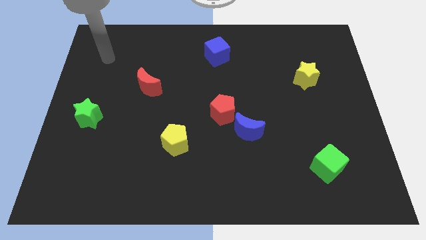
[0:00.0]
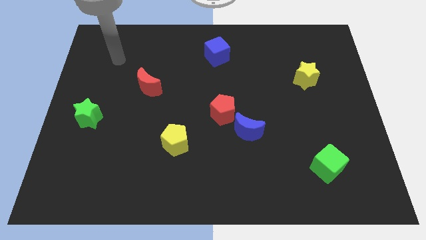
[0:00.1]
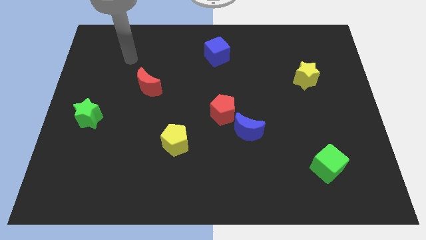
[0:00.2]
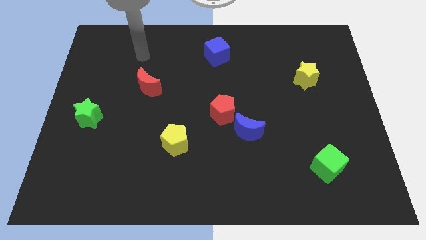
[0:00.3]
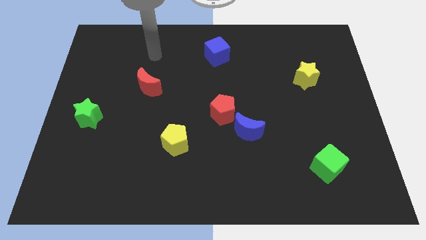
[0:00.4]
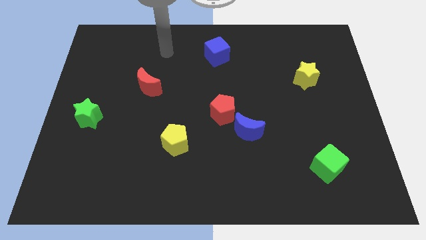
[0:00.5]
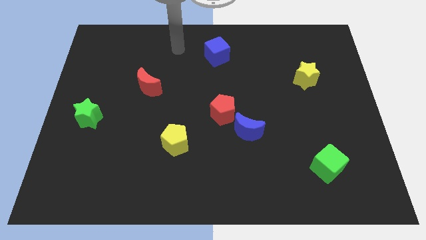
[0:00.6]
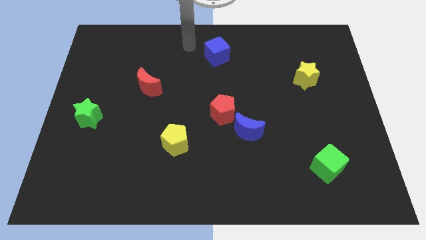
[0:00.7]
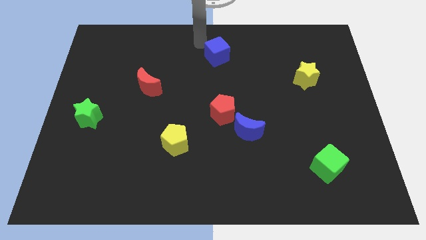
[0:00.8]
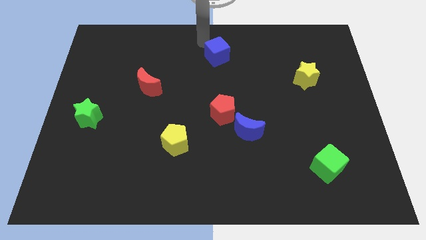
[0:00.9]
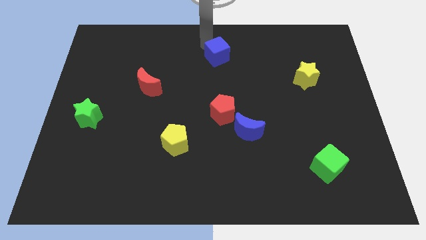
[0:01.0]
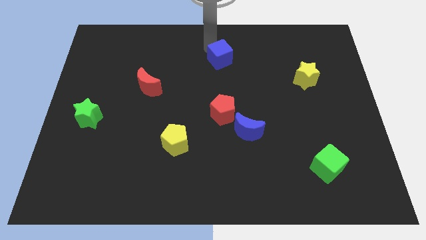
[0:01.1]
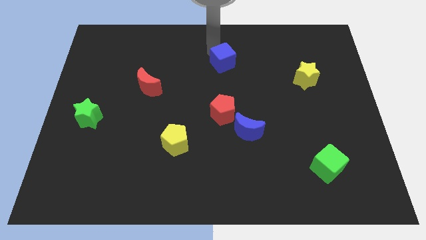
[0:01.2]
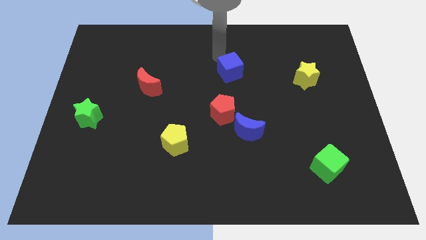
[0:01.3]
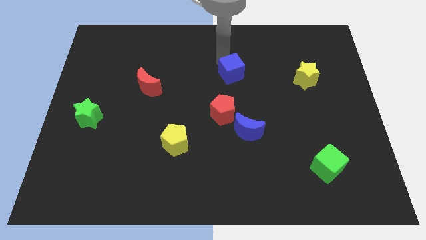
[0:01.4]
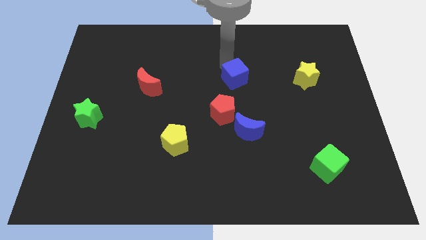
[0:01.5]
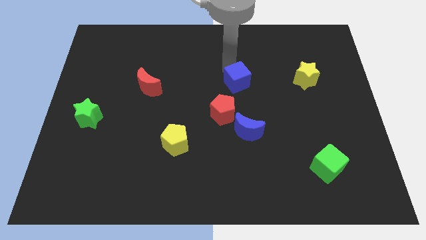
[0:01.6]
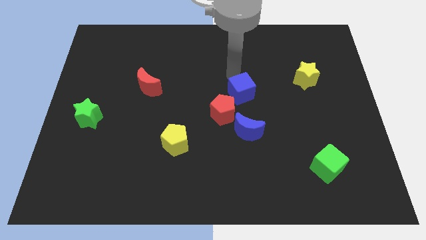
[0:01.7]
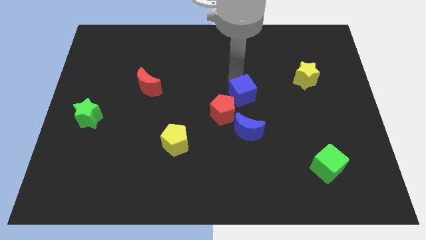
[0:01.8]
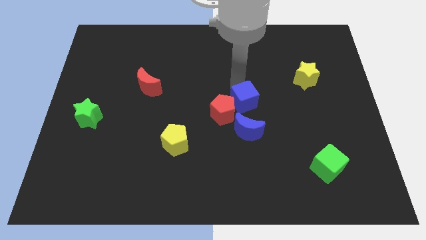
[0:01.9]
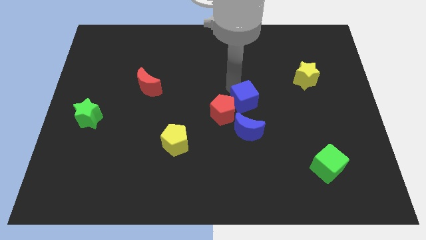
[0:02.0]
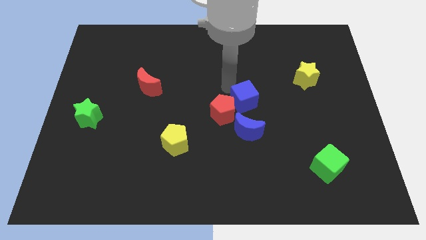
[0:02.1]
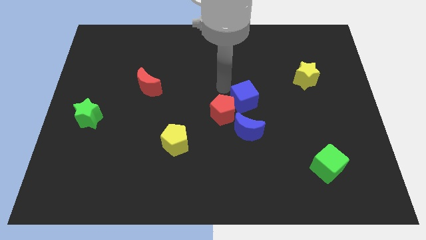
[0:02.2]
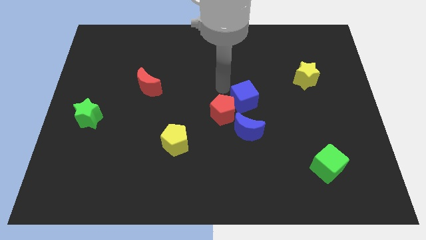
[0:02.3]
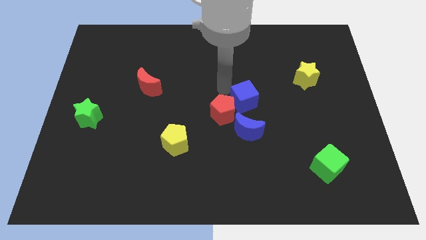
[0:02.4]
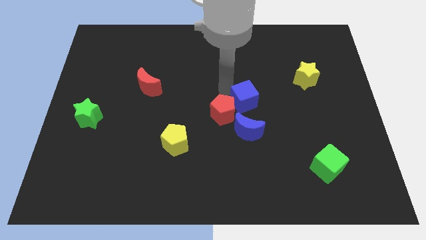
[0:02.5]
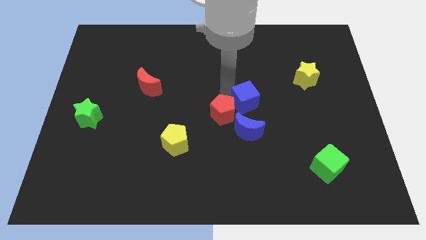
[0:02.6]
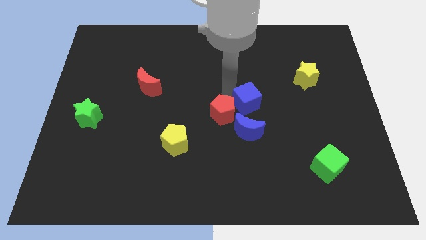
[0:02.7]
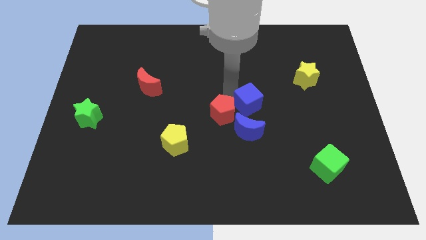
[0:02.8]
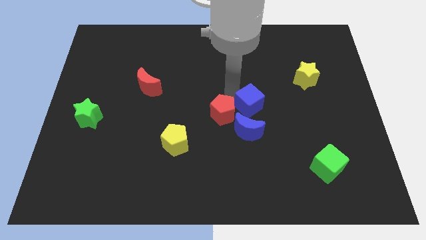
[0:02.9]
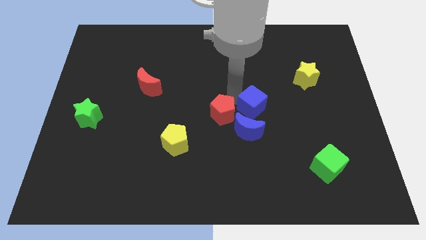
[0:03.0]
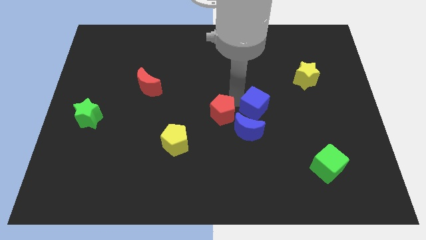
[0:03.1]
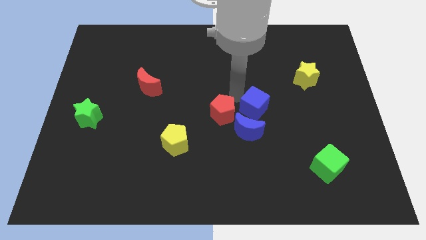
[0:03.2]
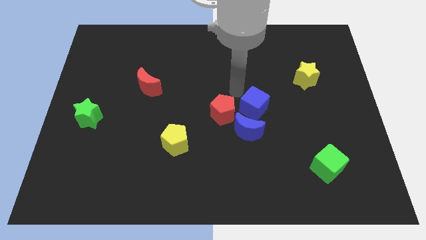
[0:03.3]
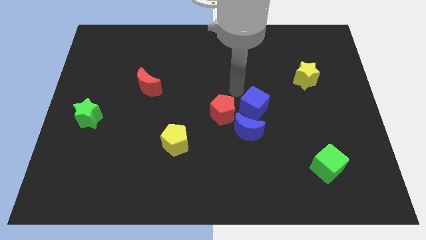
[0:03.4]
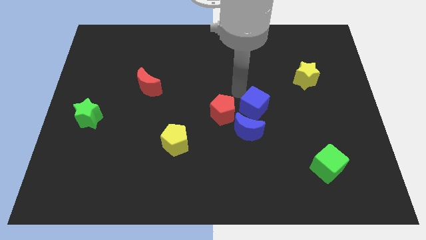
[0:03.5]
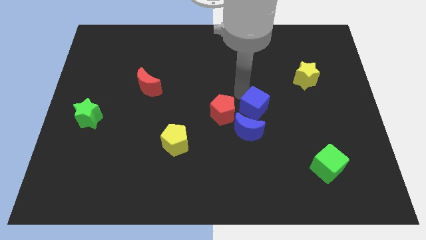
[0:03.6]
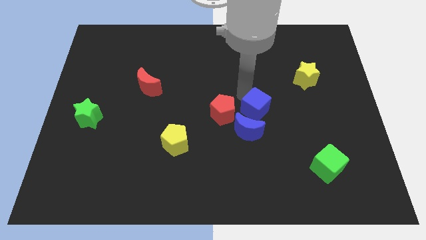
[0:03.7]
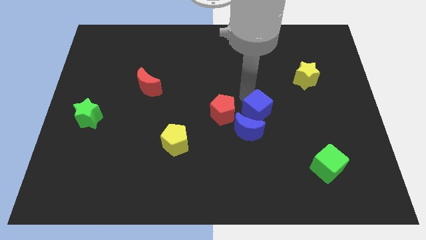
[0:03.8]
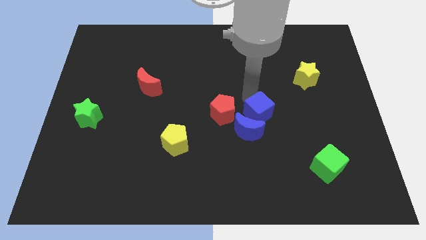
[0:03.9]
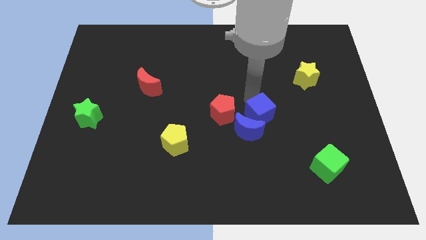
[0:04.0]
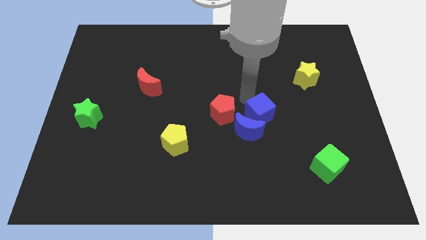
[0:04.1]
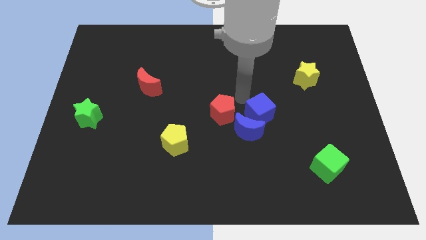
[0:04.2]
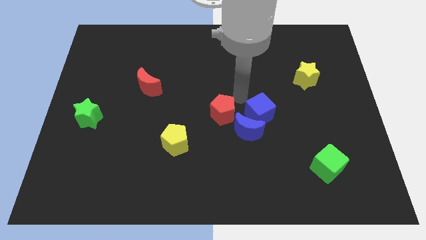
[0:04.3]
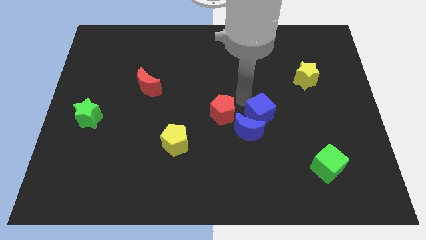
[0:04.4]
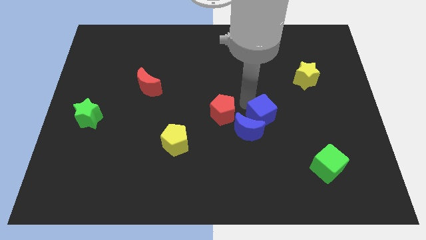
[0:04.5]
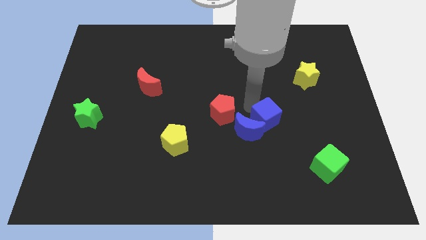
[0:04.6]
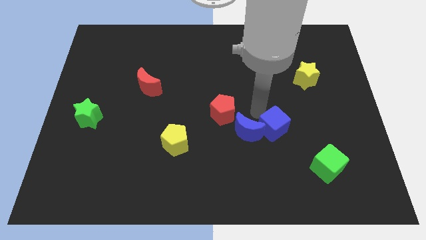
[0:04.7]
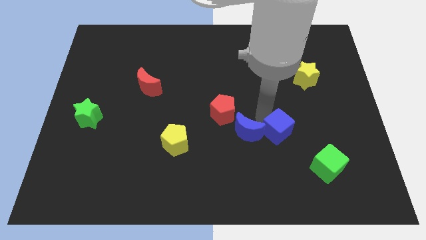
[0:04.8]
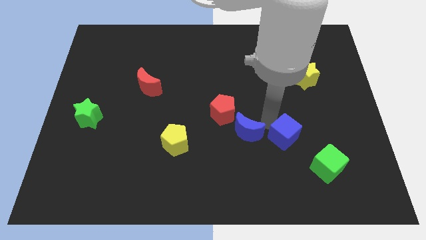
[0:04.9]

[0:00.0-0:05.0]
slide the blue cube to the top left side of the green cube

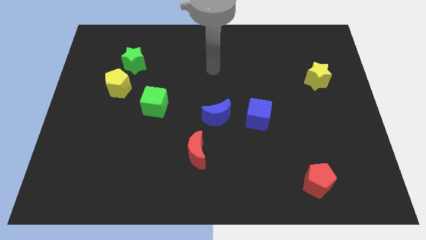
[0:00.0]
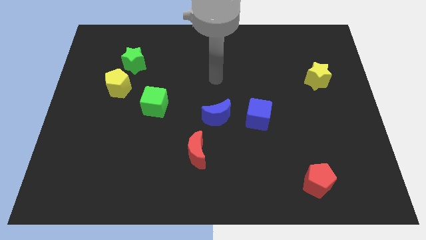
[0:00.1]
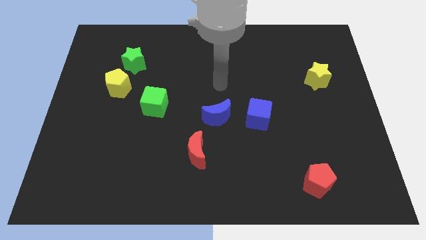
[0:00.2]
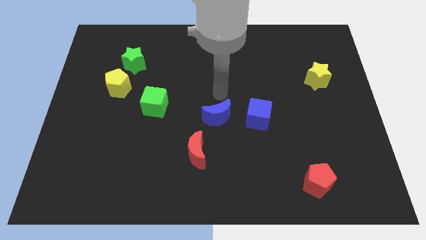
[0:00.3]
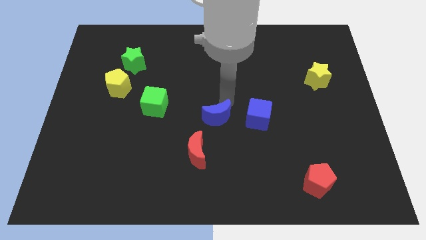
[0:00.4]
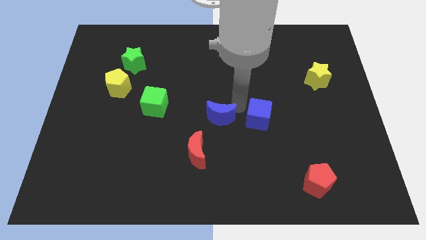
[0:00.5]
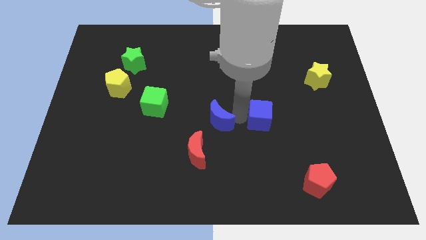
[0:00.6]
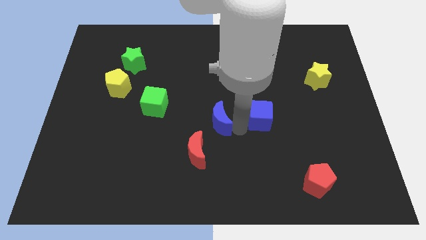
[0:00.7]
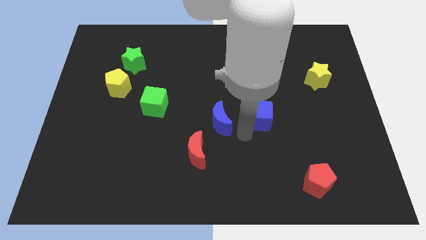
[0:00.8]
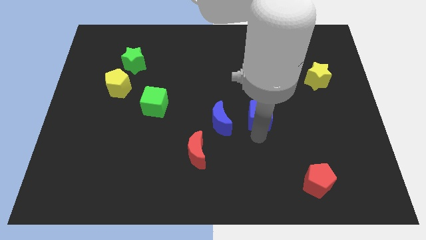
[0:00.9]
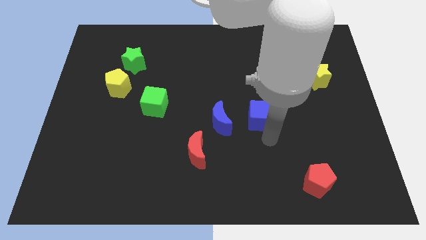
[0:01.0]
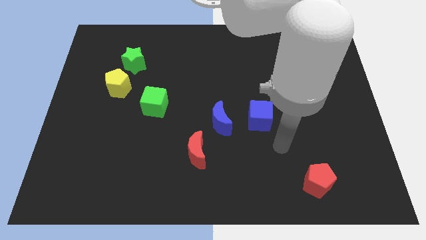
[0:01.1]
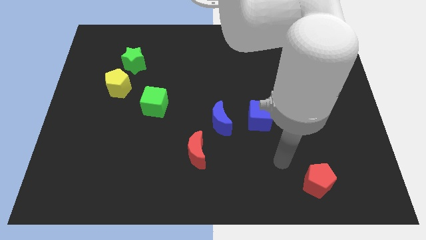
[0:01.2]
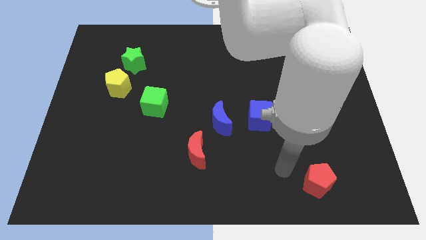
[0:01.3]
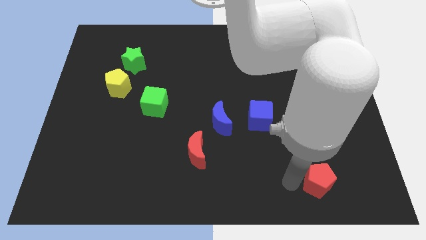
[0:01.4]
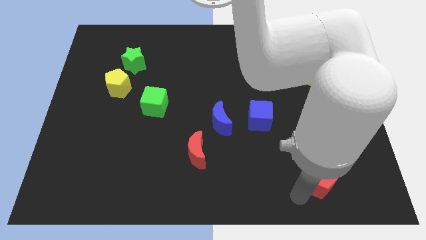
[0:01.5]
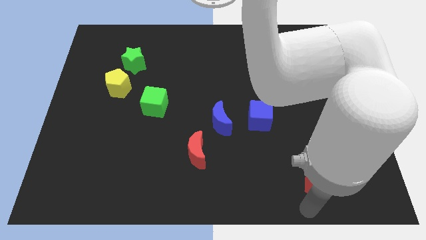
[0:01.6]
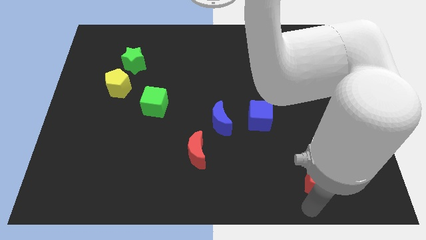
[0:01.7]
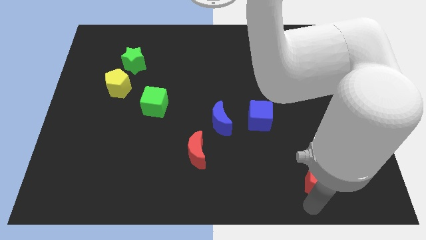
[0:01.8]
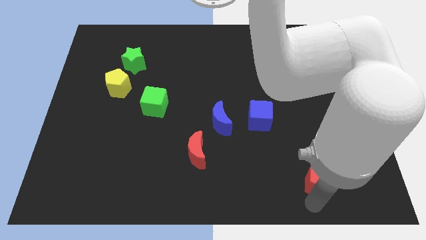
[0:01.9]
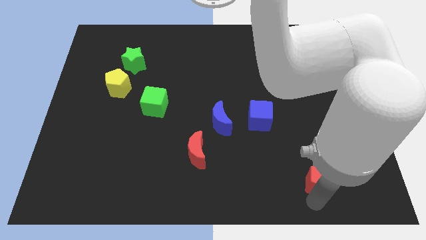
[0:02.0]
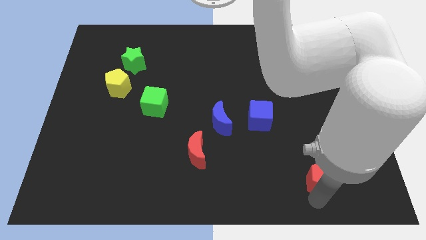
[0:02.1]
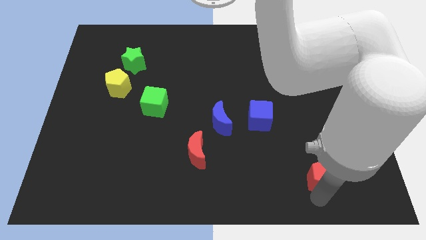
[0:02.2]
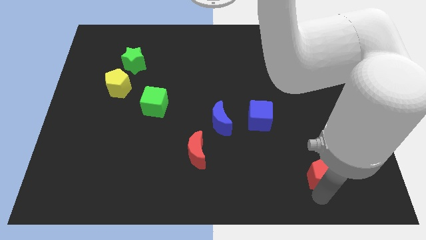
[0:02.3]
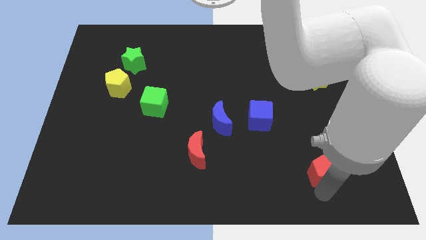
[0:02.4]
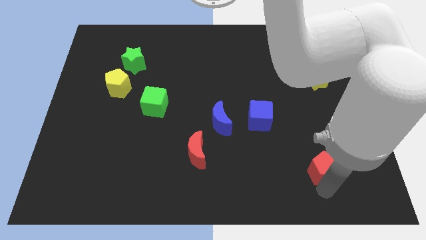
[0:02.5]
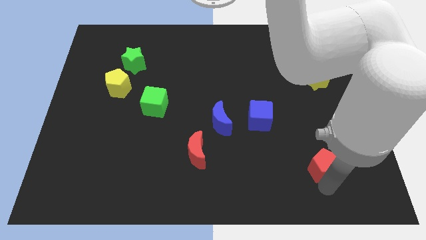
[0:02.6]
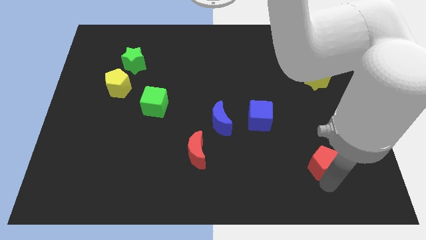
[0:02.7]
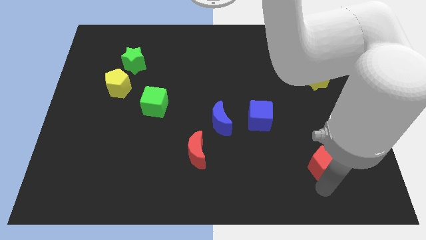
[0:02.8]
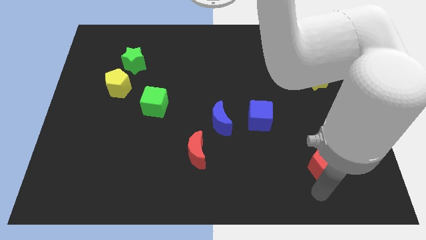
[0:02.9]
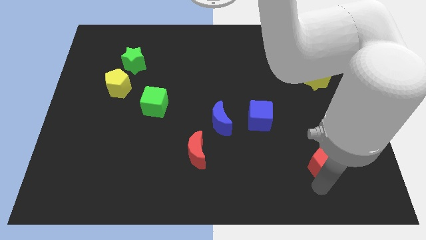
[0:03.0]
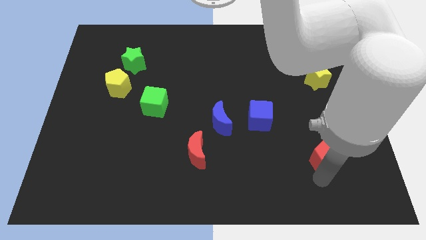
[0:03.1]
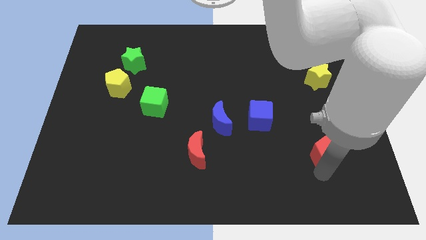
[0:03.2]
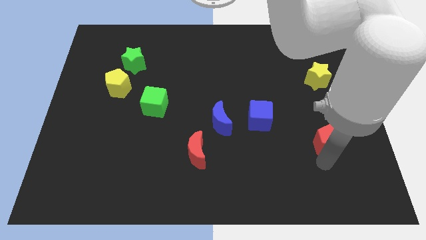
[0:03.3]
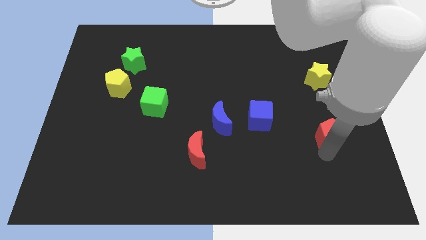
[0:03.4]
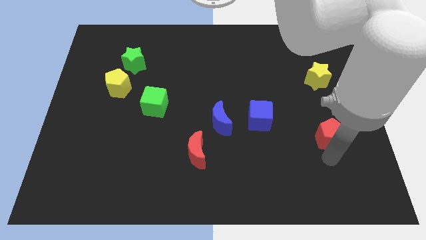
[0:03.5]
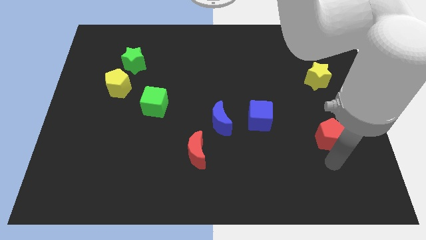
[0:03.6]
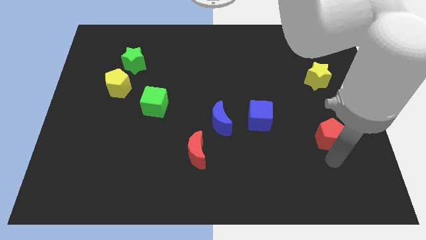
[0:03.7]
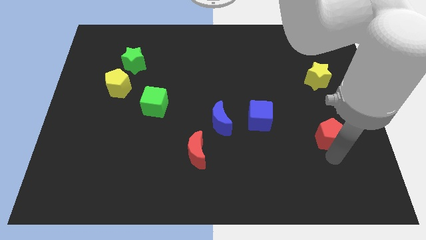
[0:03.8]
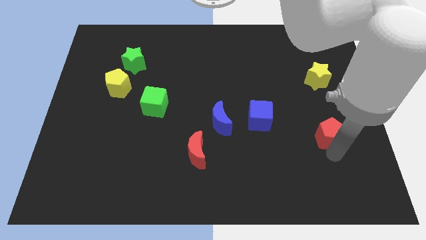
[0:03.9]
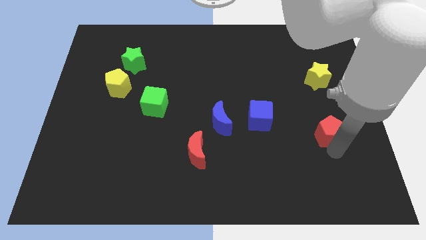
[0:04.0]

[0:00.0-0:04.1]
slide the red pentagon to the bottom side of the yellow star
